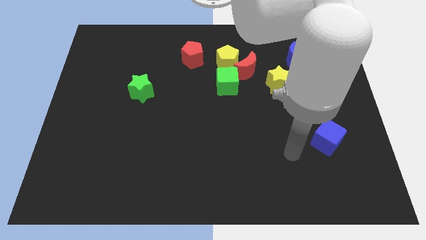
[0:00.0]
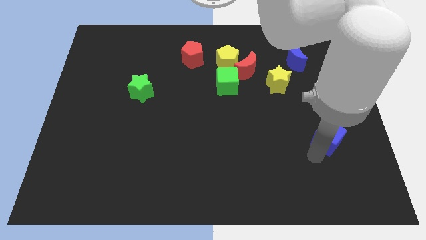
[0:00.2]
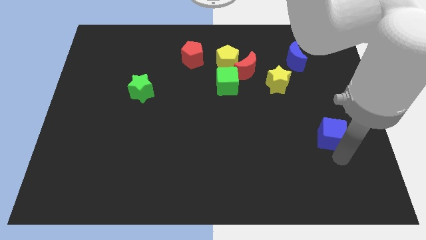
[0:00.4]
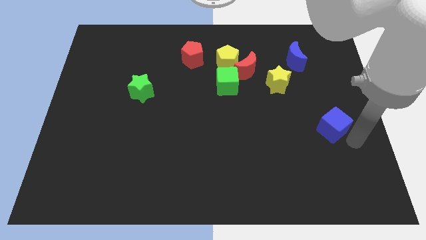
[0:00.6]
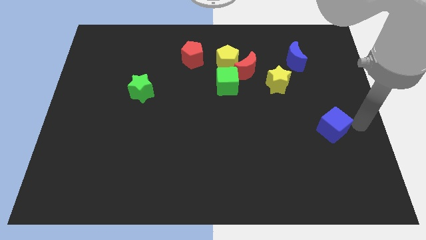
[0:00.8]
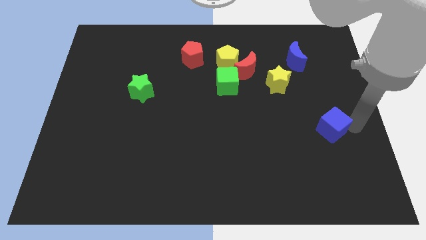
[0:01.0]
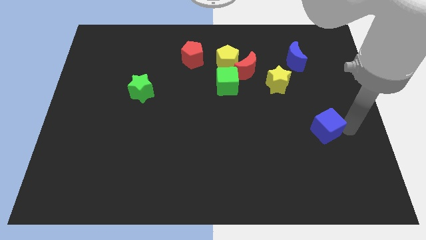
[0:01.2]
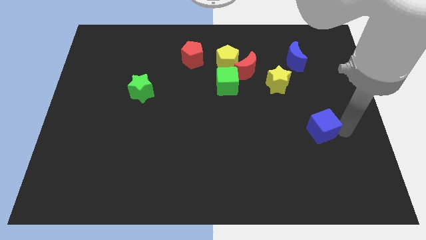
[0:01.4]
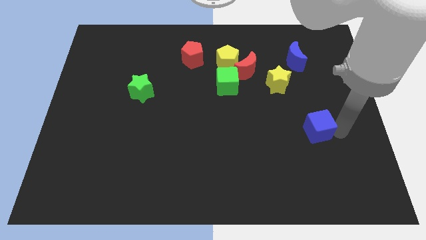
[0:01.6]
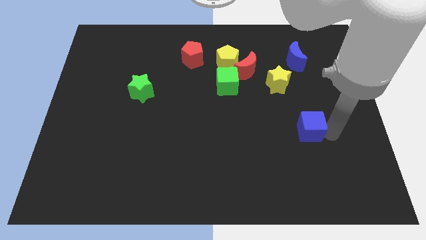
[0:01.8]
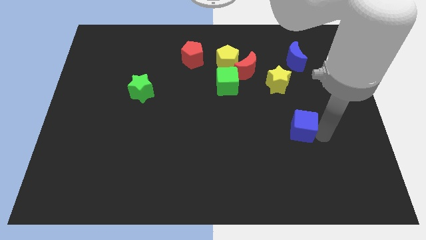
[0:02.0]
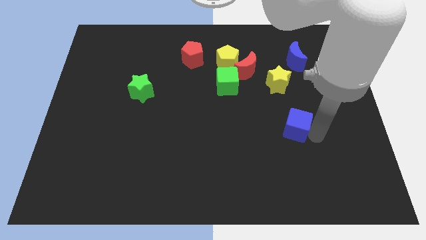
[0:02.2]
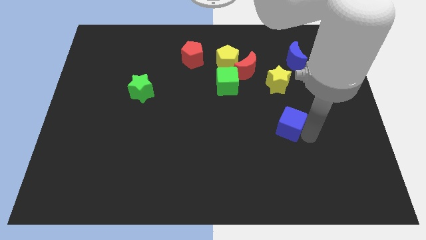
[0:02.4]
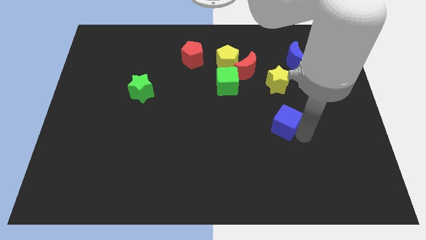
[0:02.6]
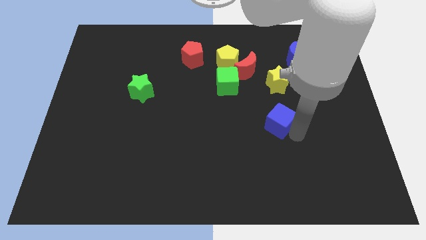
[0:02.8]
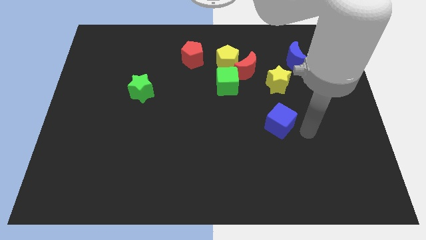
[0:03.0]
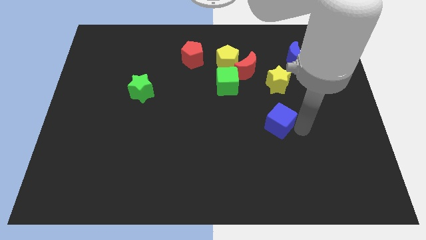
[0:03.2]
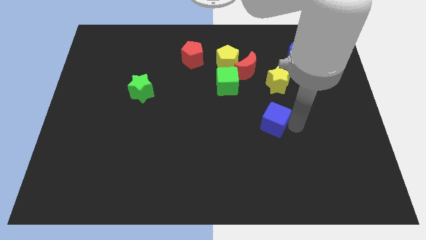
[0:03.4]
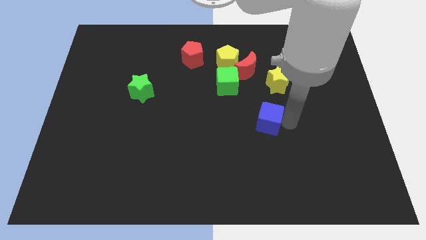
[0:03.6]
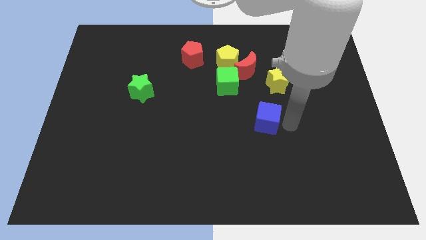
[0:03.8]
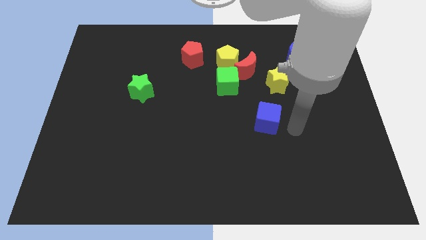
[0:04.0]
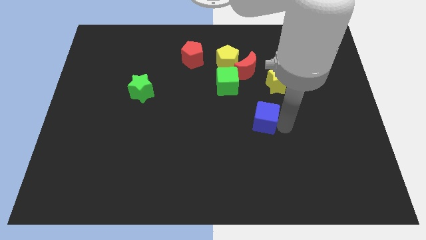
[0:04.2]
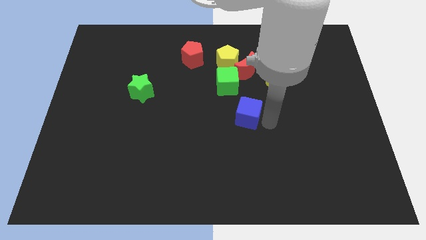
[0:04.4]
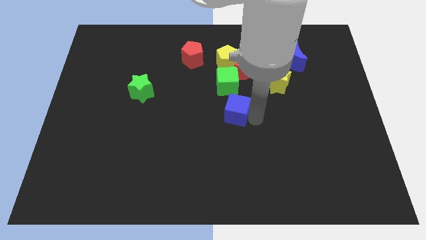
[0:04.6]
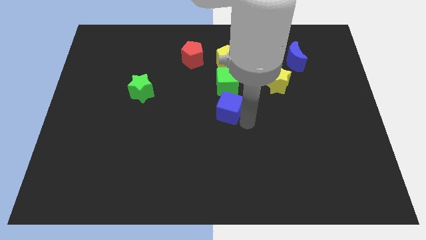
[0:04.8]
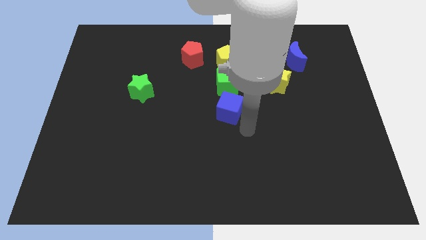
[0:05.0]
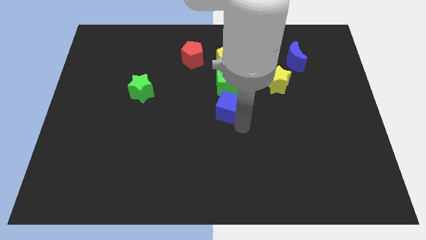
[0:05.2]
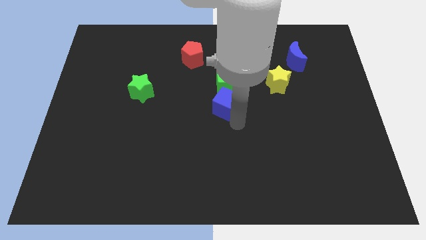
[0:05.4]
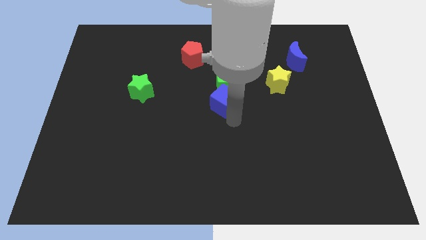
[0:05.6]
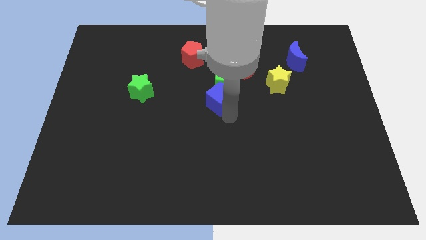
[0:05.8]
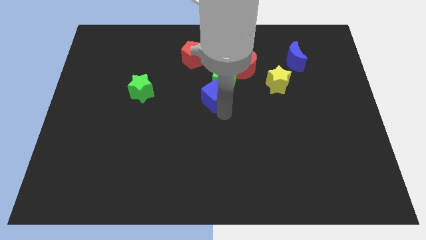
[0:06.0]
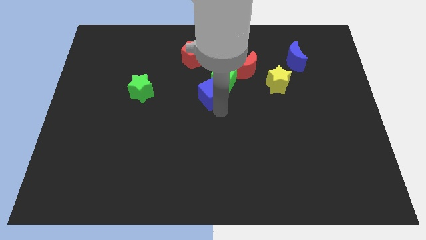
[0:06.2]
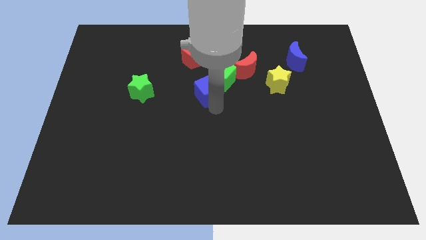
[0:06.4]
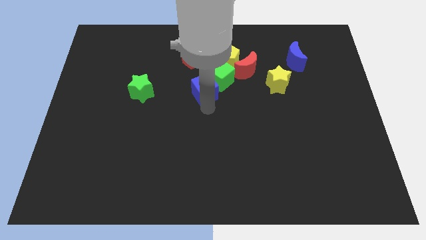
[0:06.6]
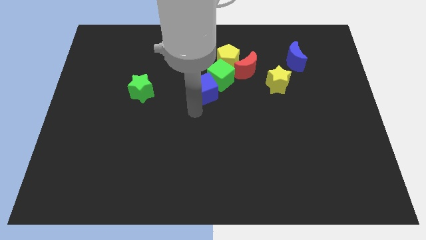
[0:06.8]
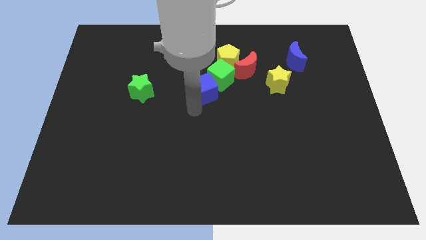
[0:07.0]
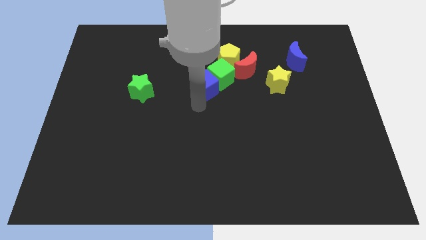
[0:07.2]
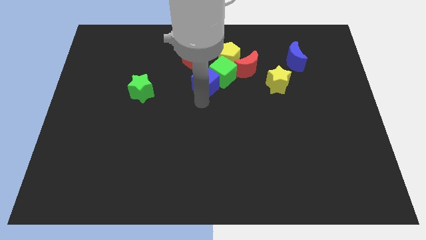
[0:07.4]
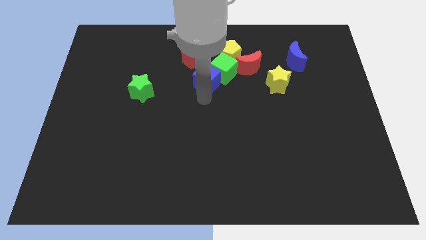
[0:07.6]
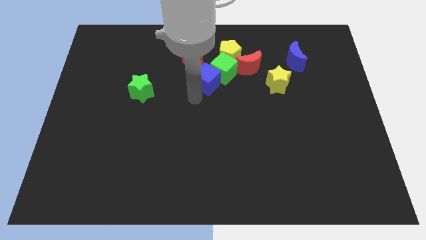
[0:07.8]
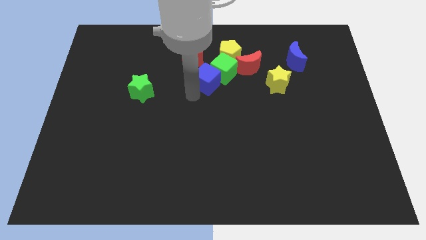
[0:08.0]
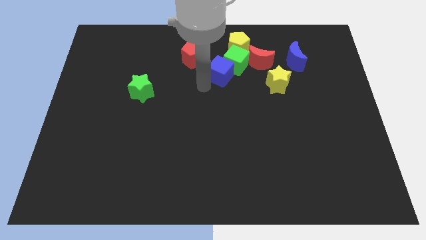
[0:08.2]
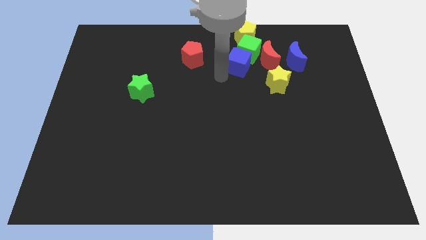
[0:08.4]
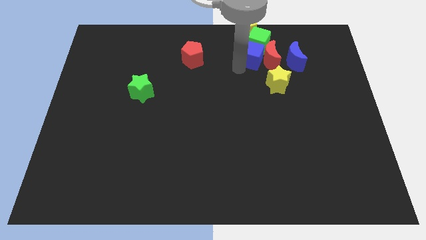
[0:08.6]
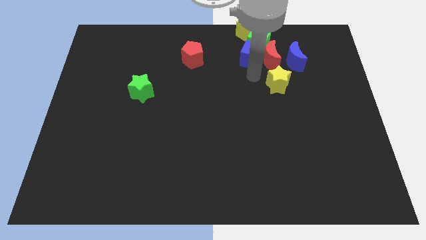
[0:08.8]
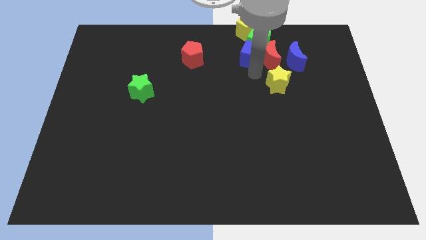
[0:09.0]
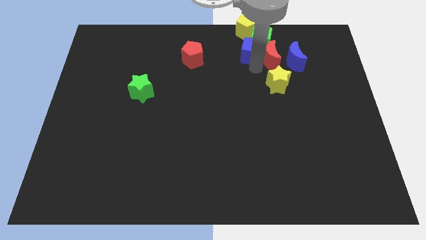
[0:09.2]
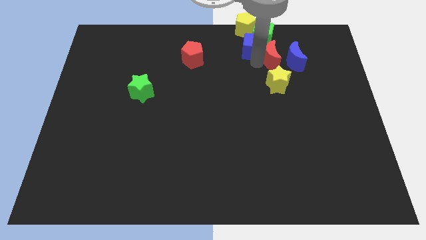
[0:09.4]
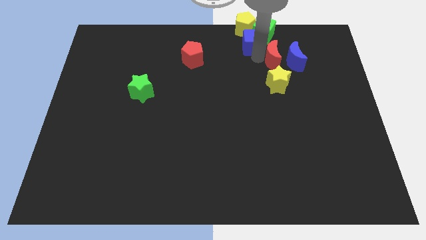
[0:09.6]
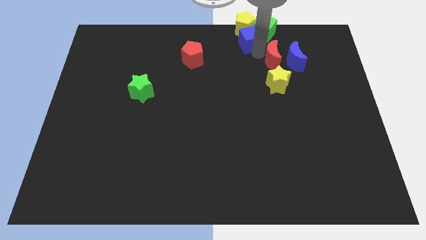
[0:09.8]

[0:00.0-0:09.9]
put the blue cube towards the yellow pentagon

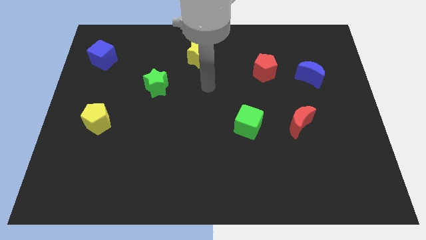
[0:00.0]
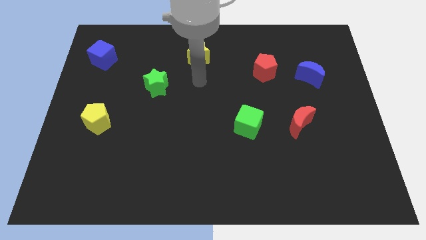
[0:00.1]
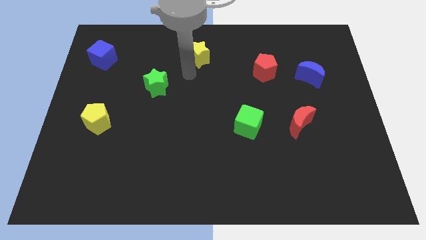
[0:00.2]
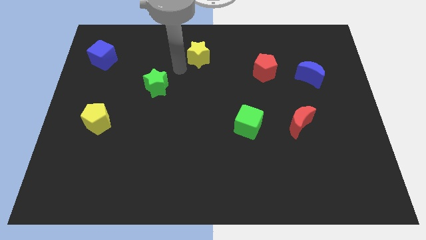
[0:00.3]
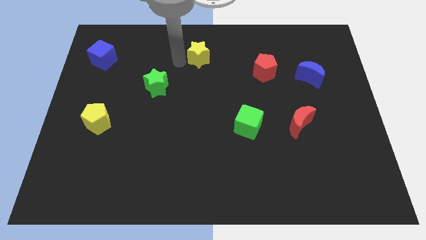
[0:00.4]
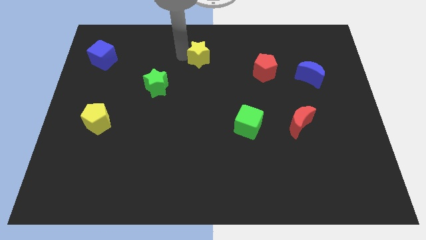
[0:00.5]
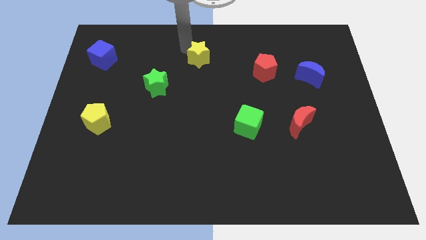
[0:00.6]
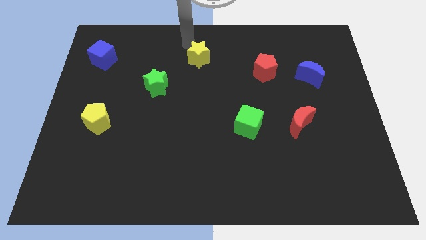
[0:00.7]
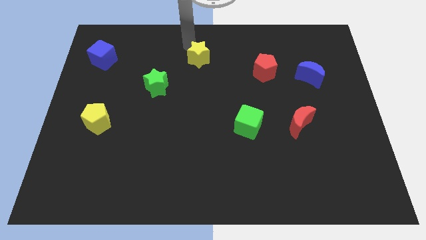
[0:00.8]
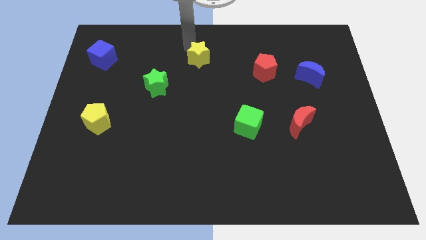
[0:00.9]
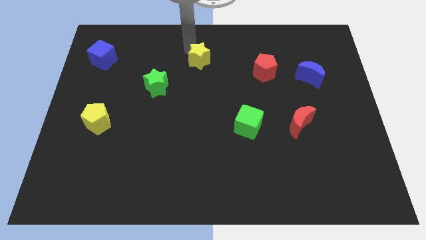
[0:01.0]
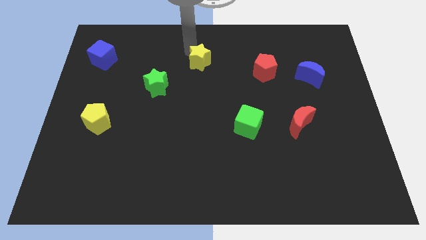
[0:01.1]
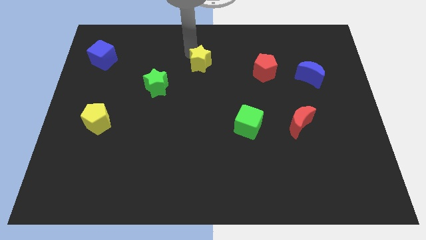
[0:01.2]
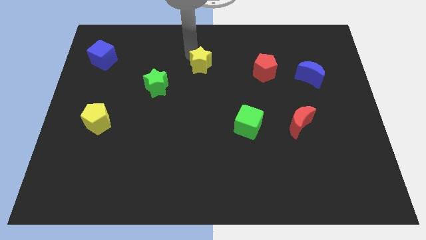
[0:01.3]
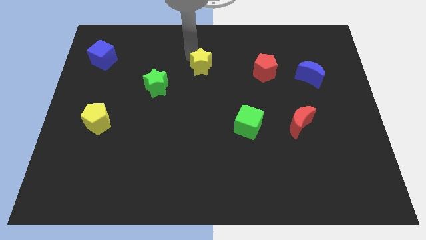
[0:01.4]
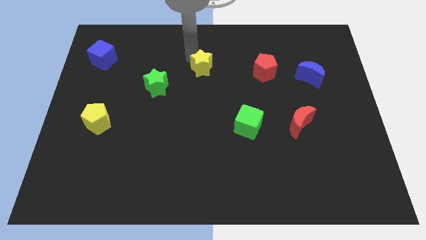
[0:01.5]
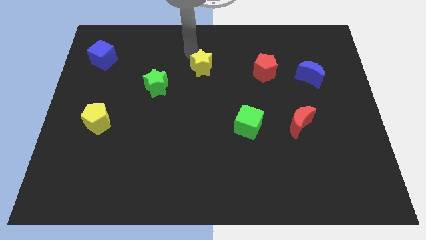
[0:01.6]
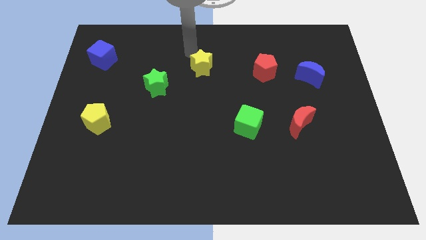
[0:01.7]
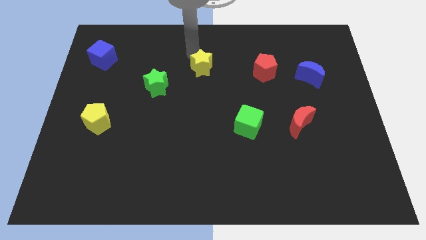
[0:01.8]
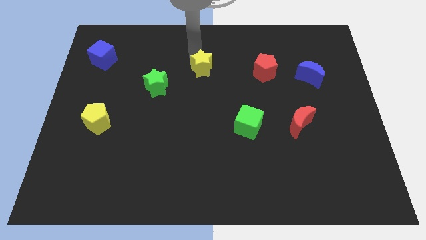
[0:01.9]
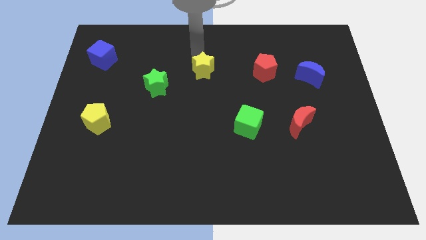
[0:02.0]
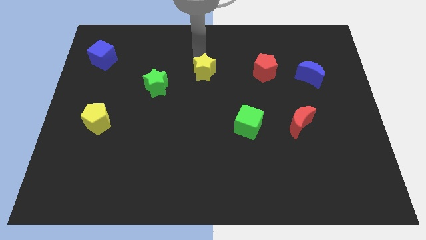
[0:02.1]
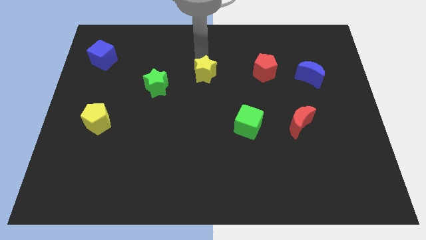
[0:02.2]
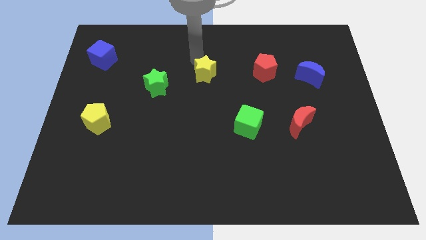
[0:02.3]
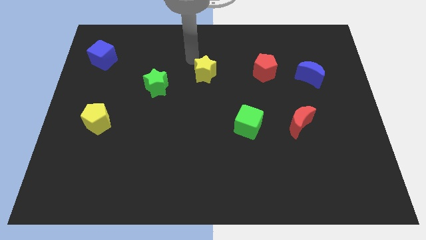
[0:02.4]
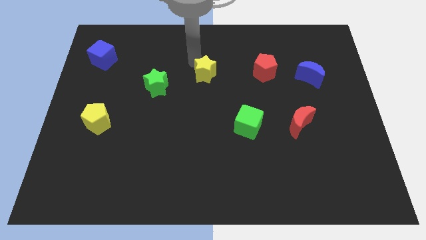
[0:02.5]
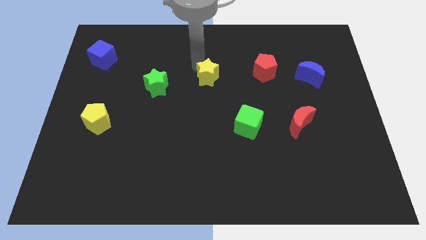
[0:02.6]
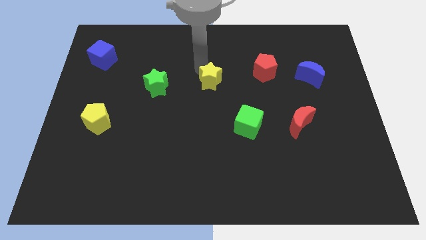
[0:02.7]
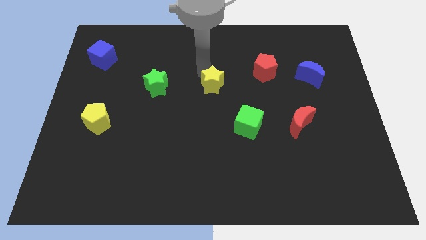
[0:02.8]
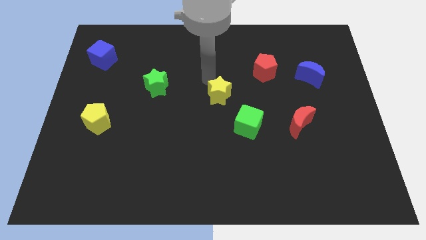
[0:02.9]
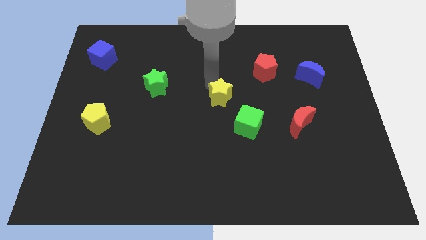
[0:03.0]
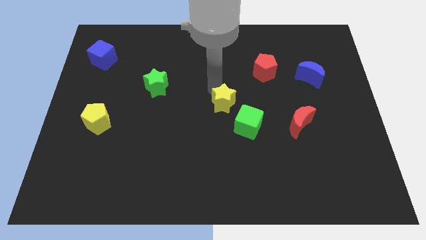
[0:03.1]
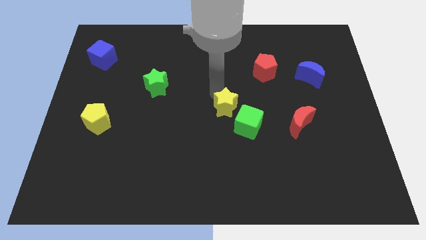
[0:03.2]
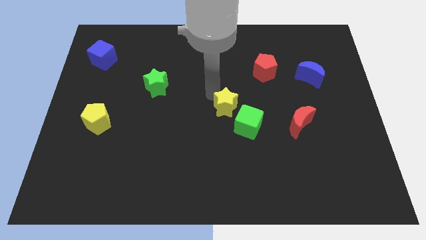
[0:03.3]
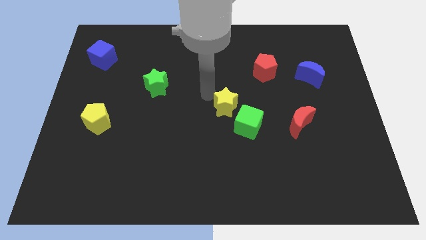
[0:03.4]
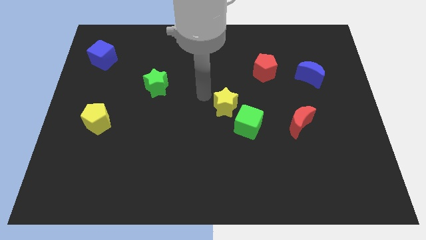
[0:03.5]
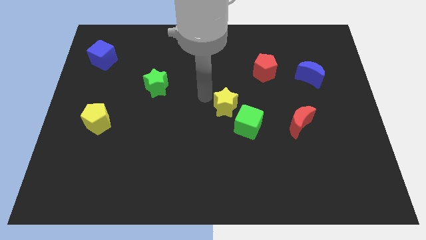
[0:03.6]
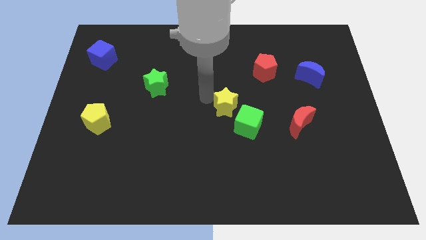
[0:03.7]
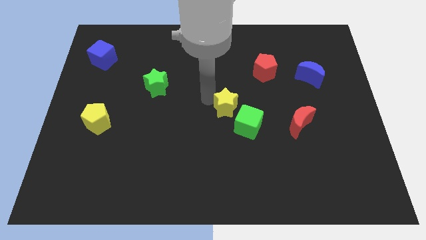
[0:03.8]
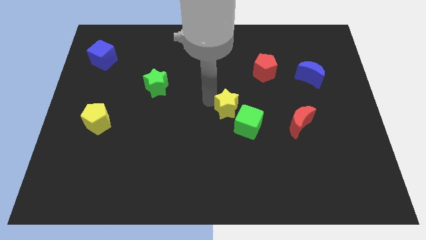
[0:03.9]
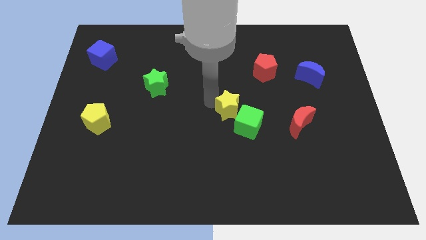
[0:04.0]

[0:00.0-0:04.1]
move the yellow star to the green cube
